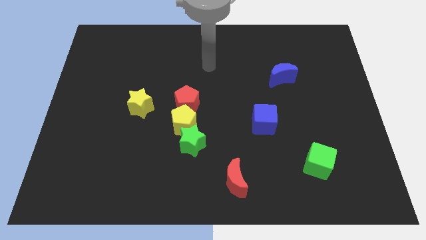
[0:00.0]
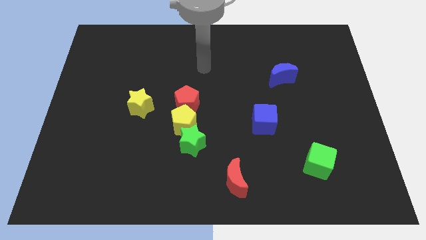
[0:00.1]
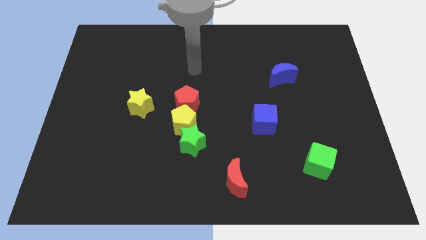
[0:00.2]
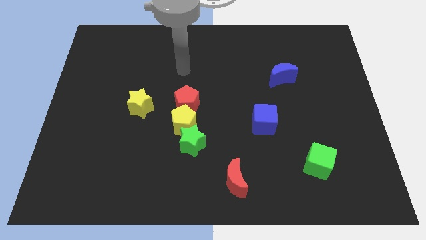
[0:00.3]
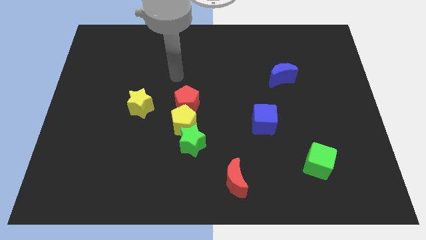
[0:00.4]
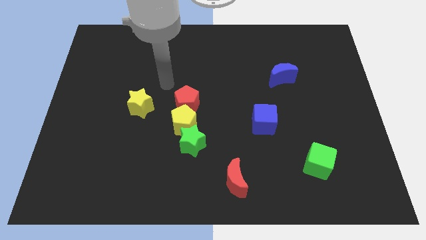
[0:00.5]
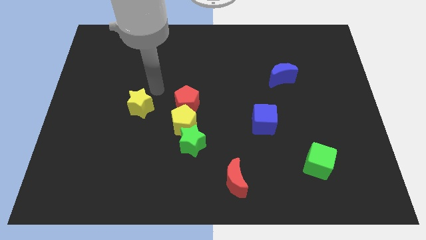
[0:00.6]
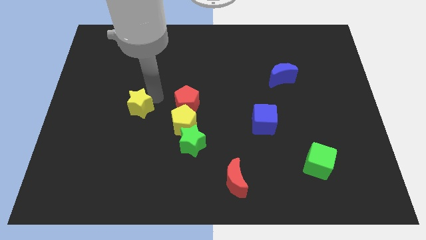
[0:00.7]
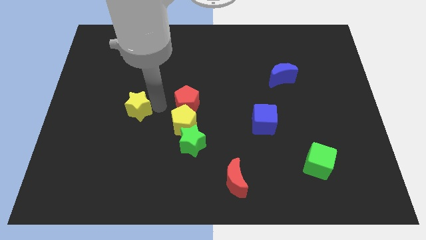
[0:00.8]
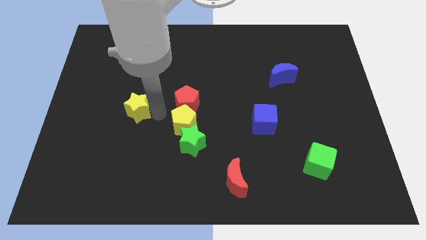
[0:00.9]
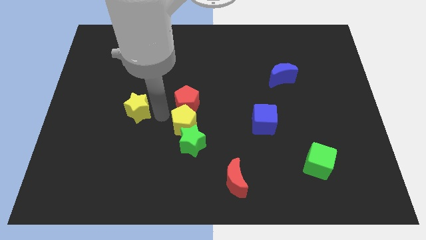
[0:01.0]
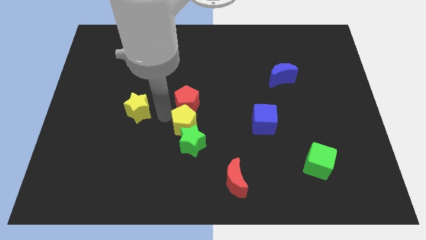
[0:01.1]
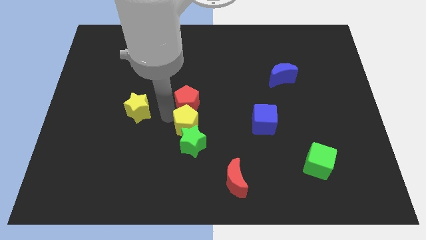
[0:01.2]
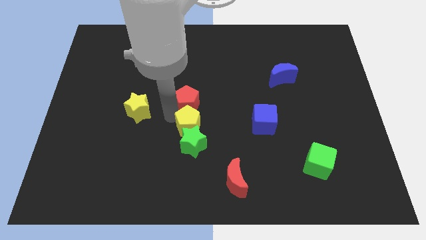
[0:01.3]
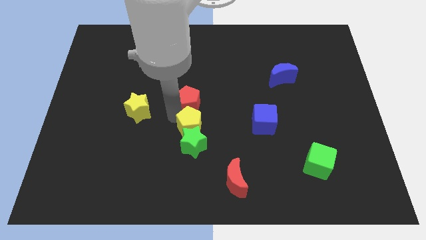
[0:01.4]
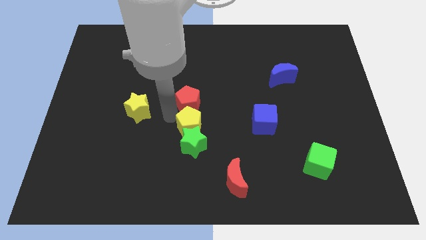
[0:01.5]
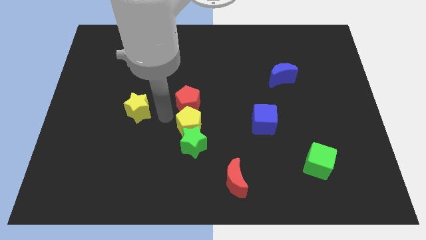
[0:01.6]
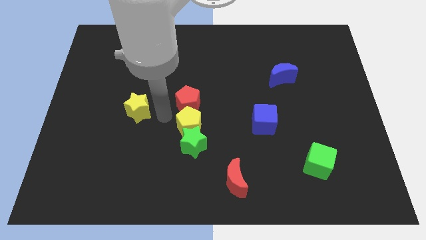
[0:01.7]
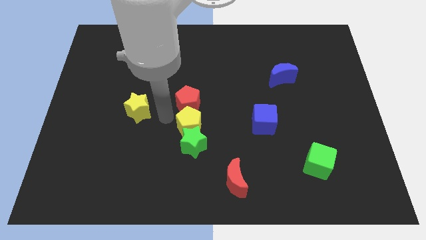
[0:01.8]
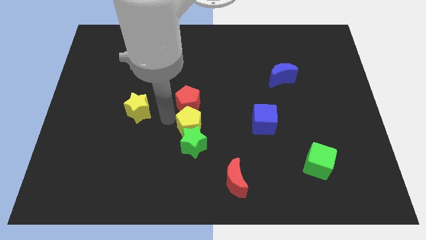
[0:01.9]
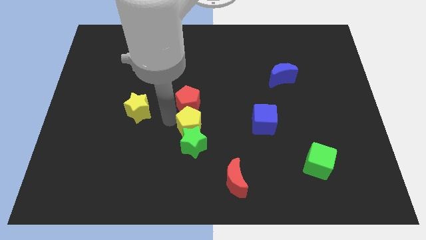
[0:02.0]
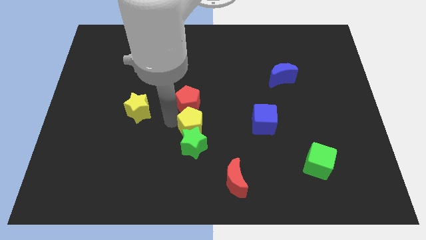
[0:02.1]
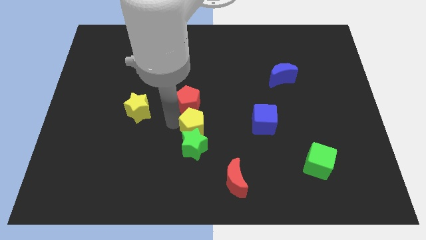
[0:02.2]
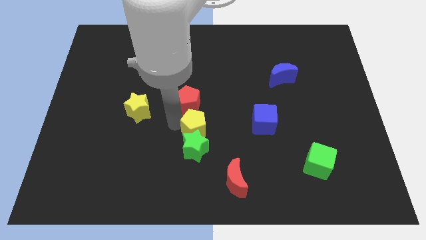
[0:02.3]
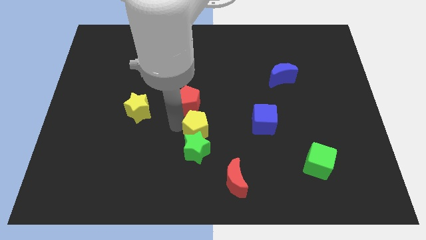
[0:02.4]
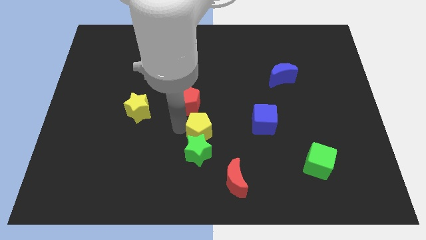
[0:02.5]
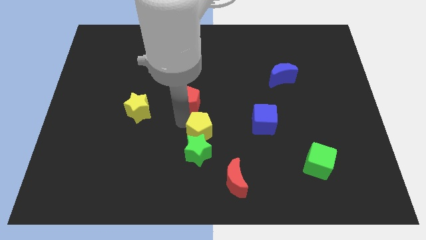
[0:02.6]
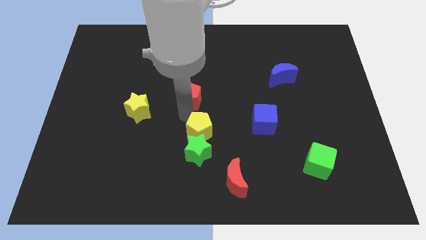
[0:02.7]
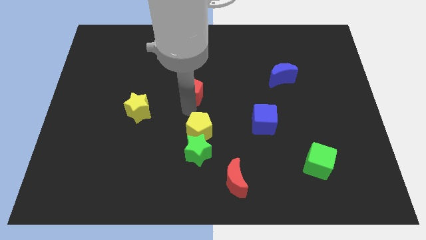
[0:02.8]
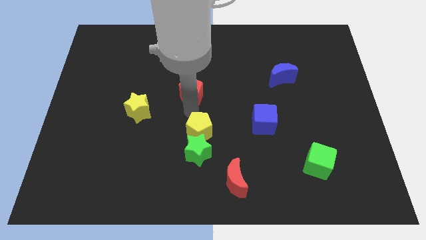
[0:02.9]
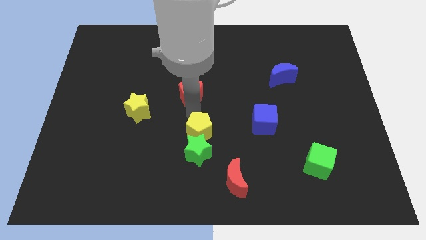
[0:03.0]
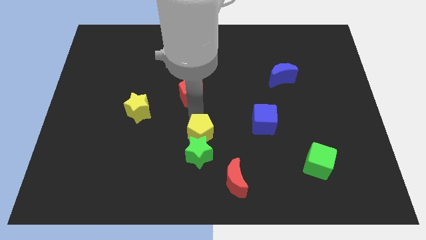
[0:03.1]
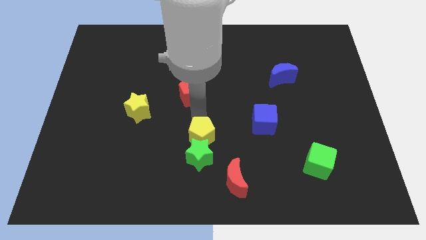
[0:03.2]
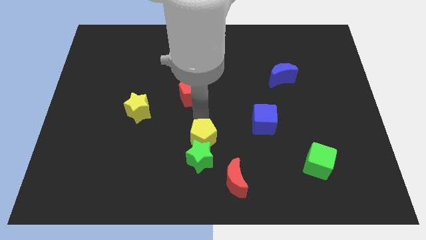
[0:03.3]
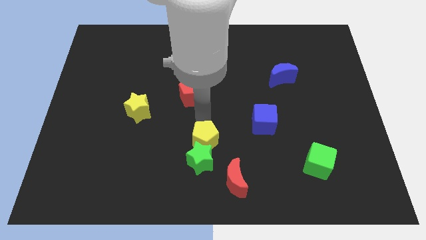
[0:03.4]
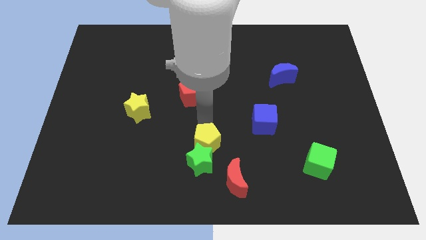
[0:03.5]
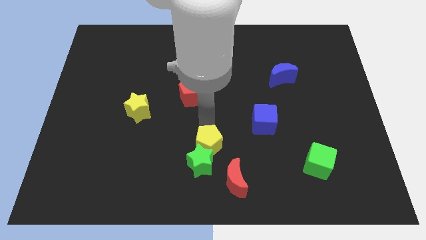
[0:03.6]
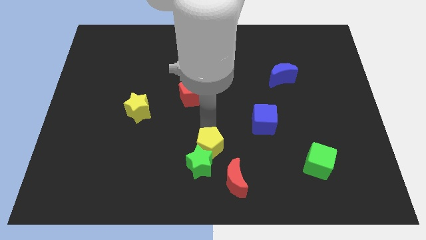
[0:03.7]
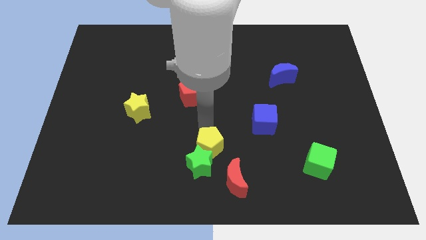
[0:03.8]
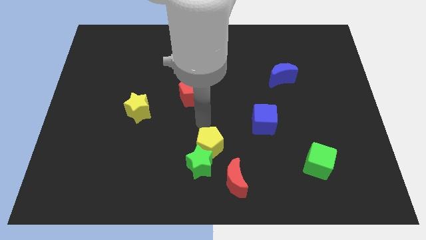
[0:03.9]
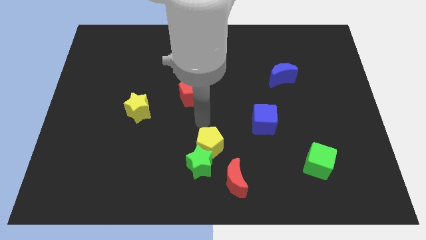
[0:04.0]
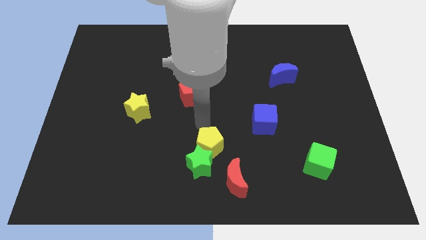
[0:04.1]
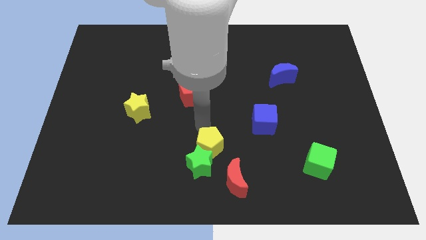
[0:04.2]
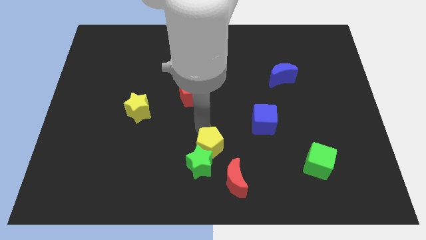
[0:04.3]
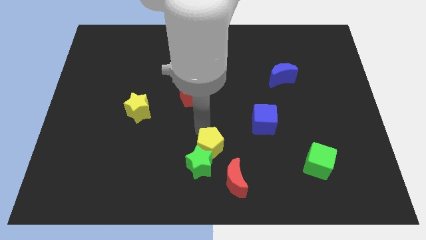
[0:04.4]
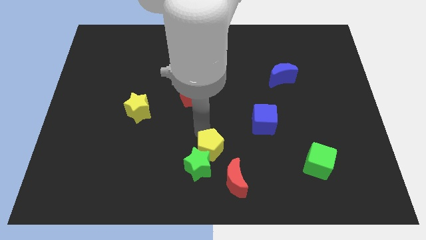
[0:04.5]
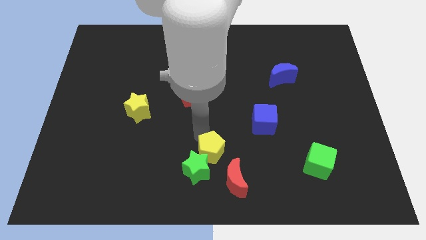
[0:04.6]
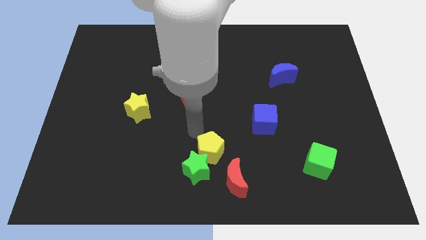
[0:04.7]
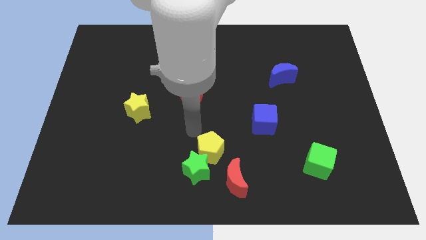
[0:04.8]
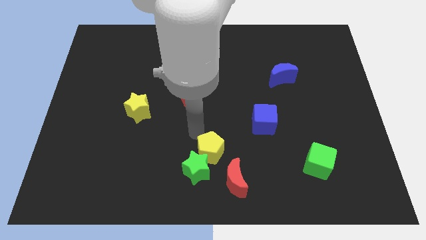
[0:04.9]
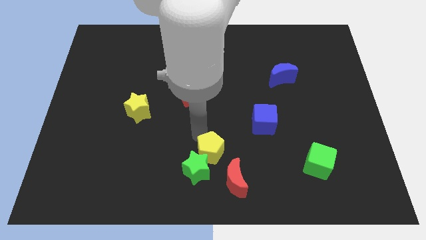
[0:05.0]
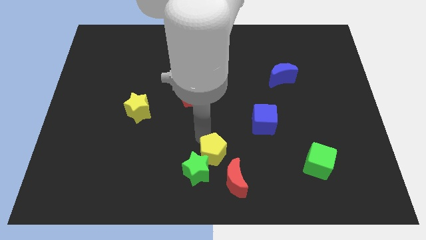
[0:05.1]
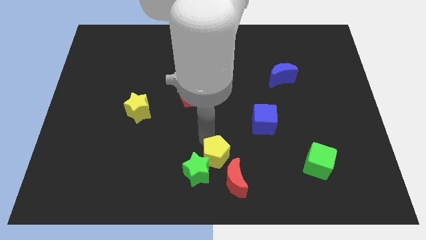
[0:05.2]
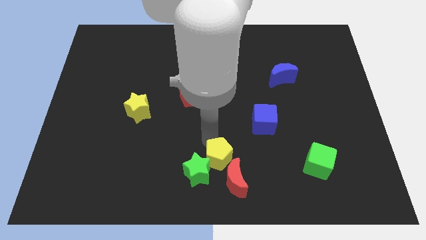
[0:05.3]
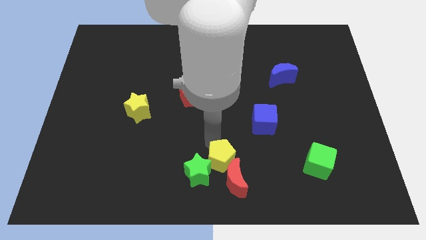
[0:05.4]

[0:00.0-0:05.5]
push the yellow pentagon next to the red moon

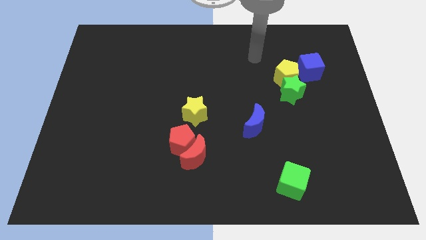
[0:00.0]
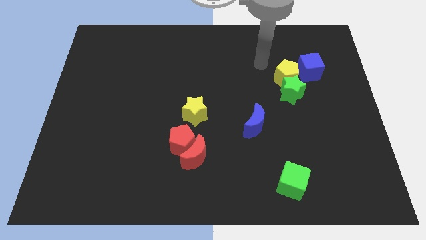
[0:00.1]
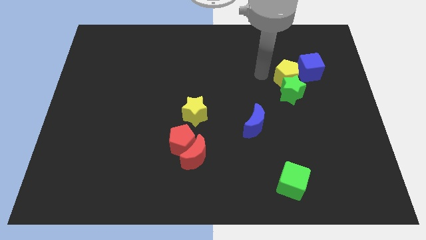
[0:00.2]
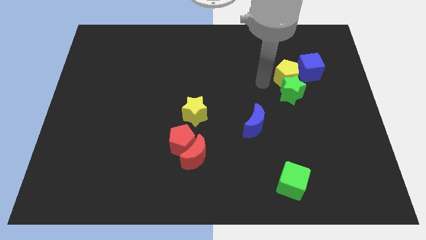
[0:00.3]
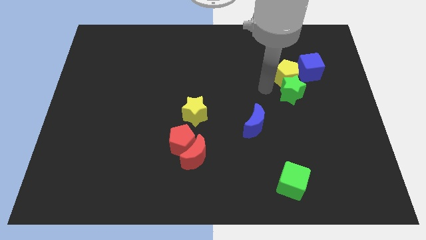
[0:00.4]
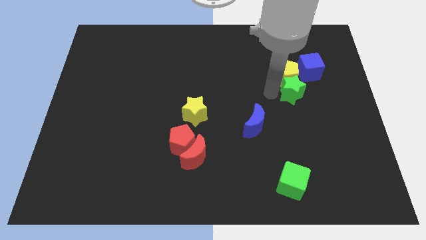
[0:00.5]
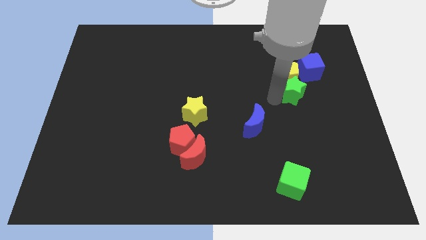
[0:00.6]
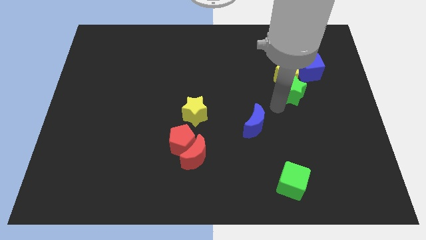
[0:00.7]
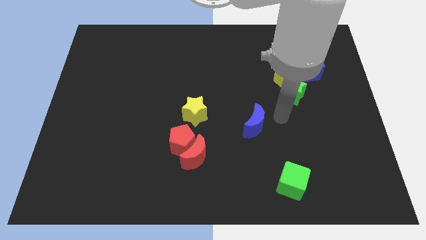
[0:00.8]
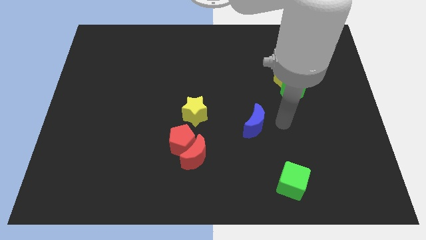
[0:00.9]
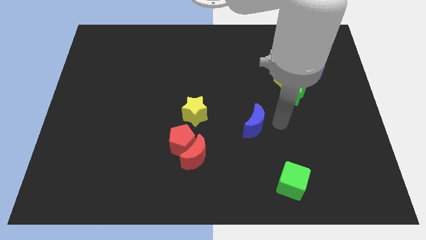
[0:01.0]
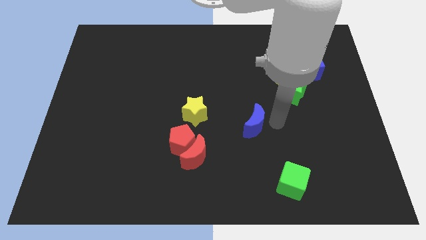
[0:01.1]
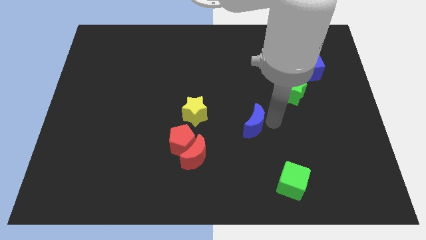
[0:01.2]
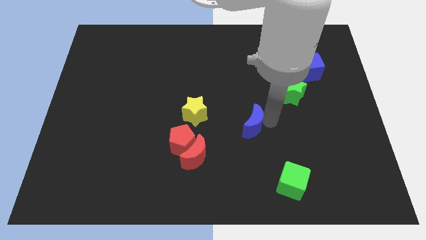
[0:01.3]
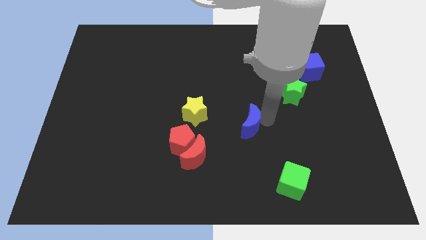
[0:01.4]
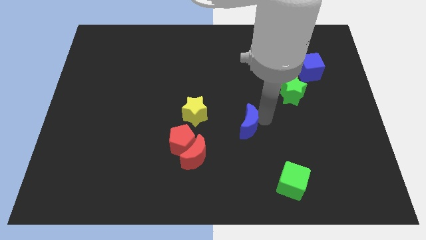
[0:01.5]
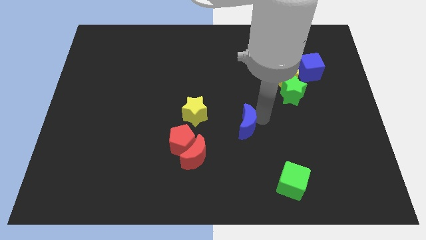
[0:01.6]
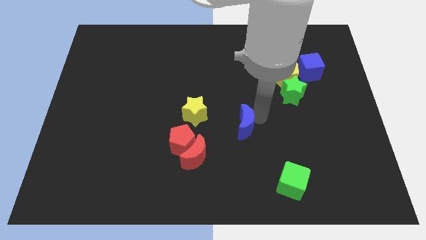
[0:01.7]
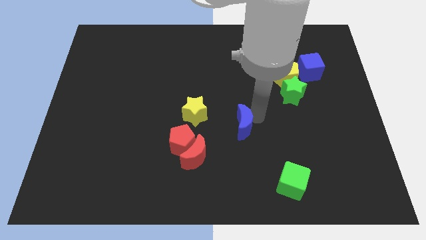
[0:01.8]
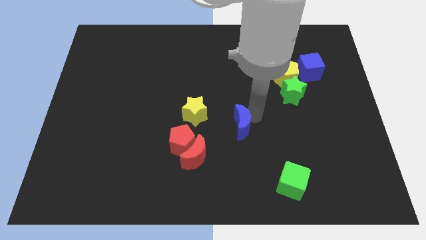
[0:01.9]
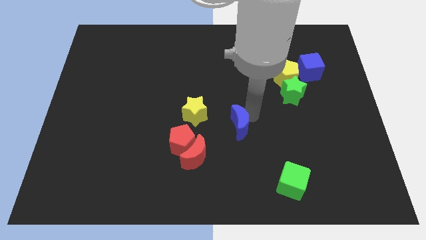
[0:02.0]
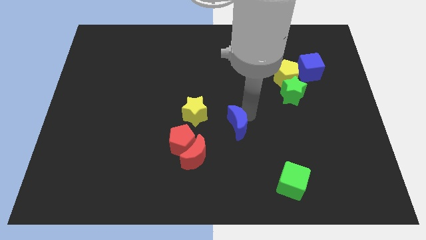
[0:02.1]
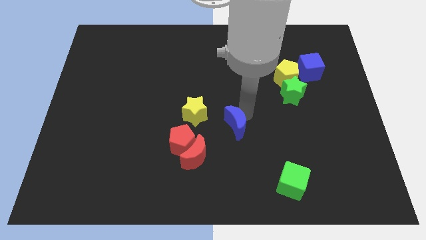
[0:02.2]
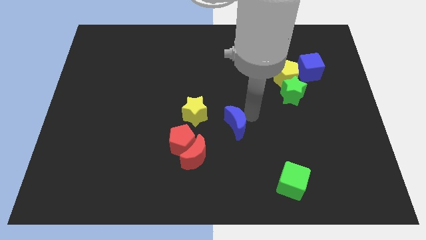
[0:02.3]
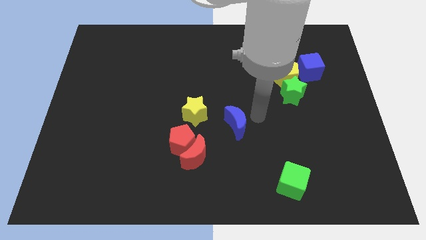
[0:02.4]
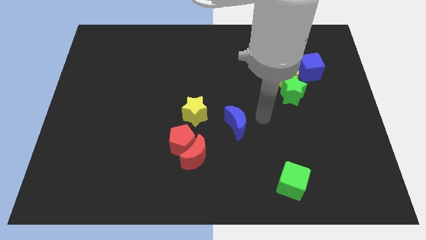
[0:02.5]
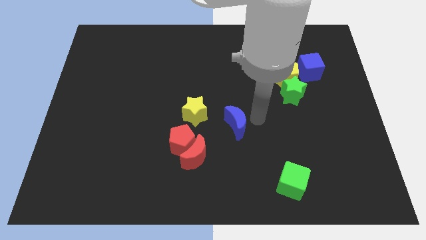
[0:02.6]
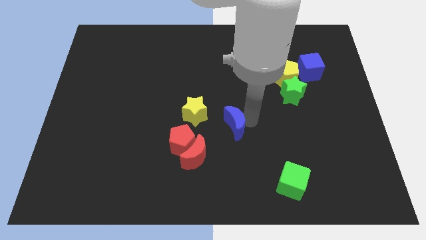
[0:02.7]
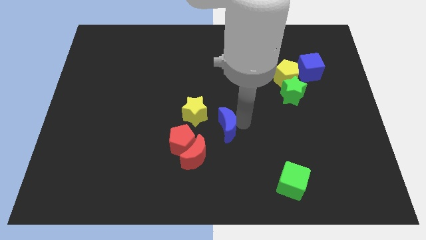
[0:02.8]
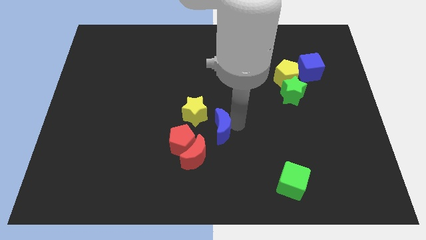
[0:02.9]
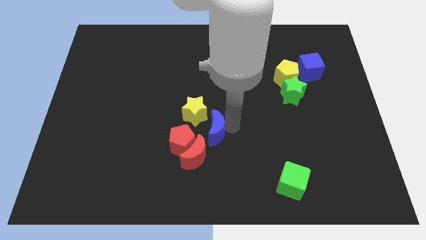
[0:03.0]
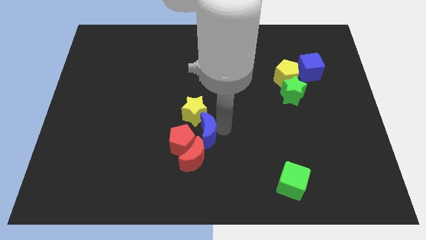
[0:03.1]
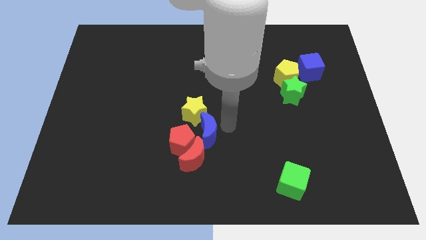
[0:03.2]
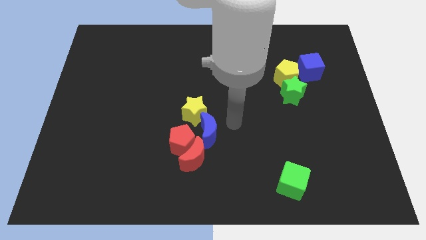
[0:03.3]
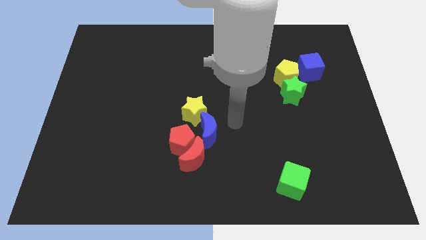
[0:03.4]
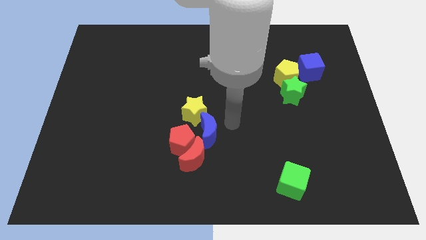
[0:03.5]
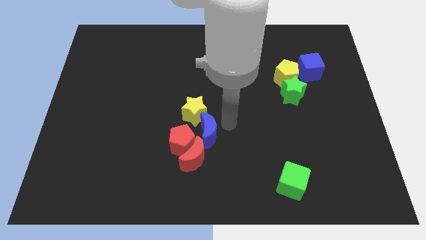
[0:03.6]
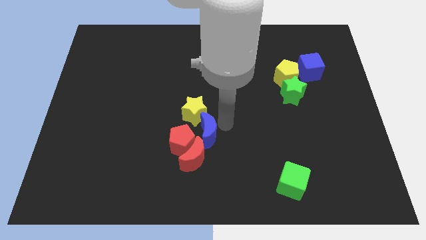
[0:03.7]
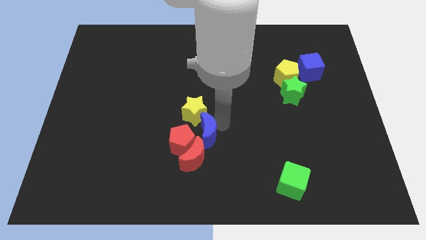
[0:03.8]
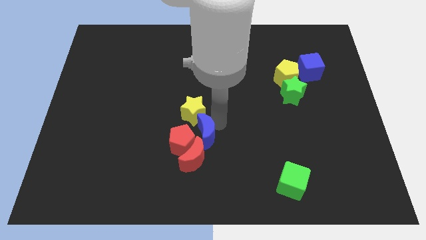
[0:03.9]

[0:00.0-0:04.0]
move the blue moon to the red pentagon
